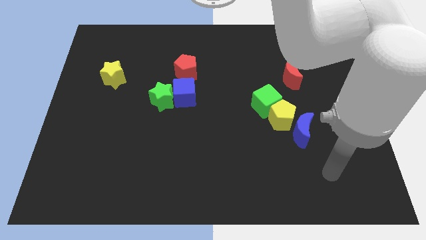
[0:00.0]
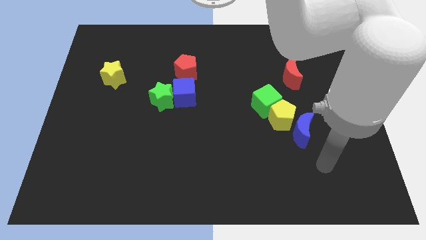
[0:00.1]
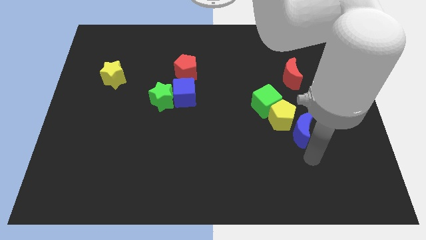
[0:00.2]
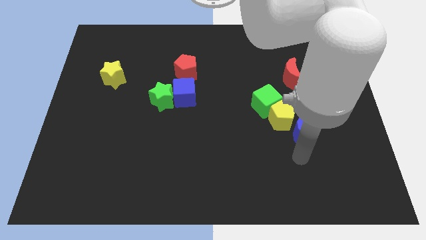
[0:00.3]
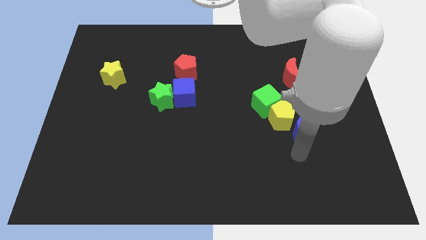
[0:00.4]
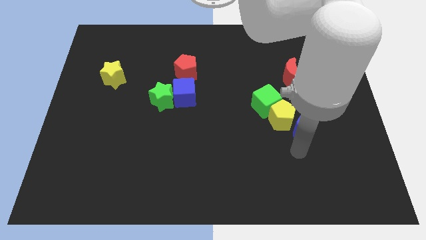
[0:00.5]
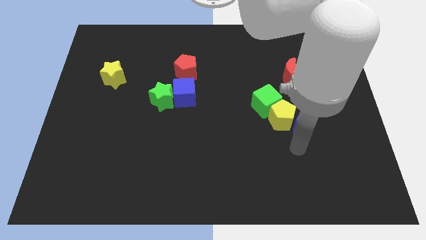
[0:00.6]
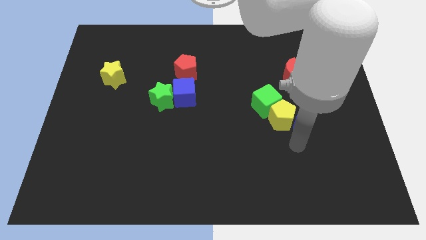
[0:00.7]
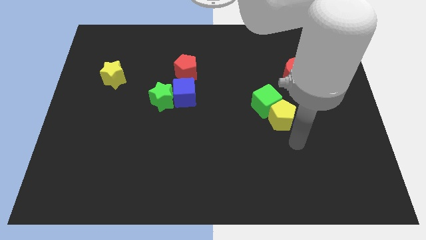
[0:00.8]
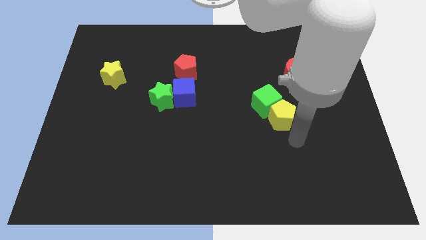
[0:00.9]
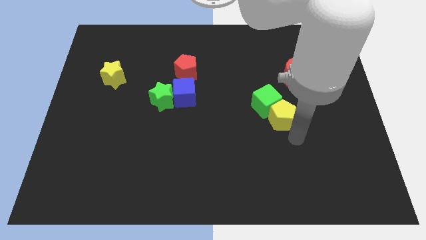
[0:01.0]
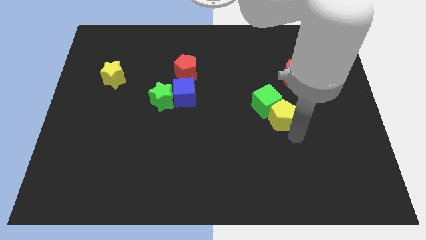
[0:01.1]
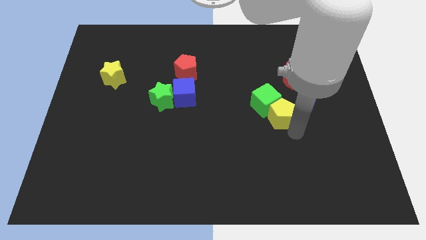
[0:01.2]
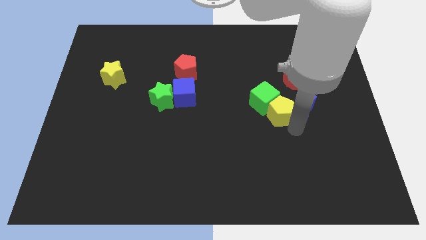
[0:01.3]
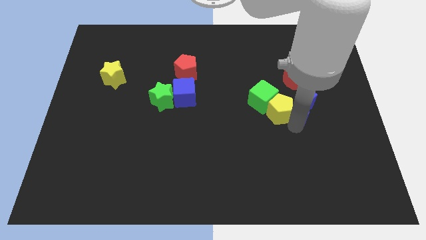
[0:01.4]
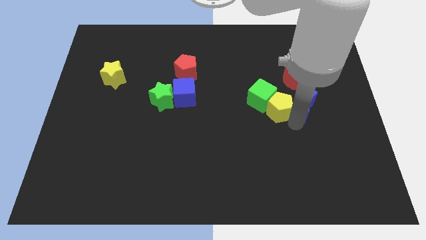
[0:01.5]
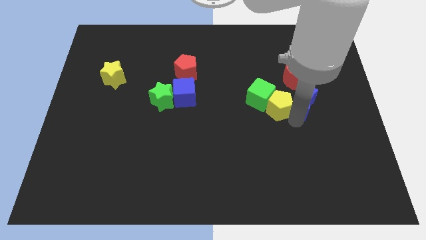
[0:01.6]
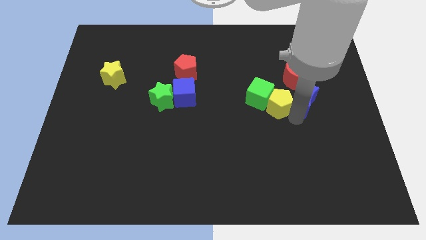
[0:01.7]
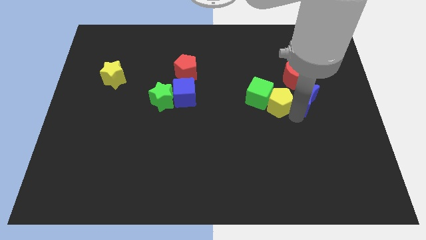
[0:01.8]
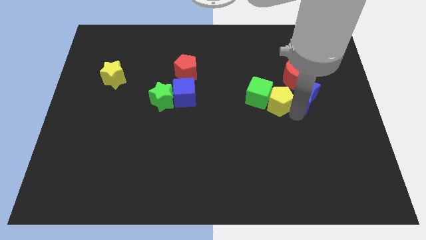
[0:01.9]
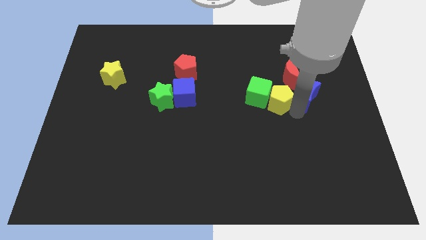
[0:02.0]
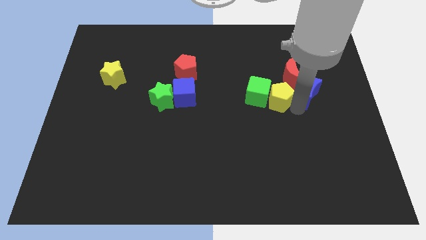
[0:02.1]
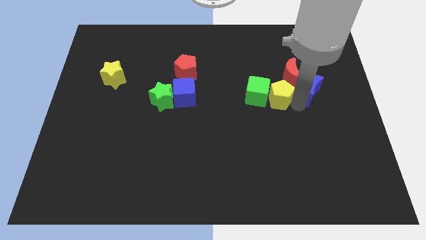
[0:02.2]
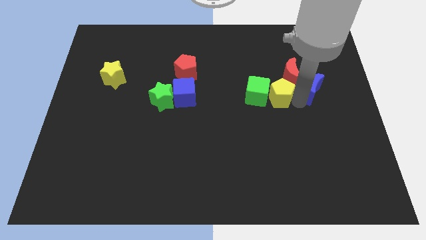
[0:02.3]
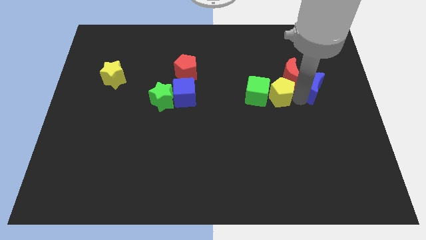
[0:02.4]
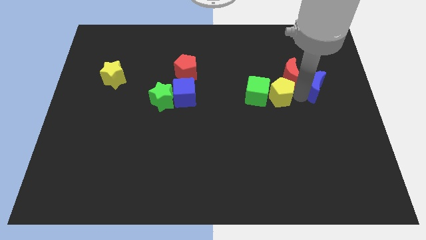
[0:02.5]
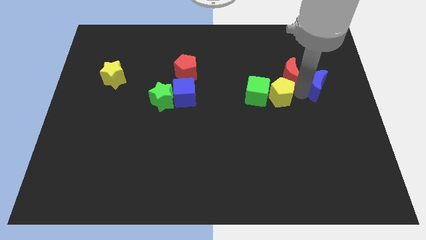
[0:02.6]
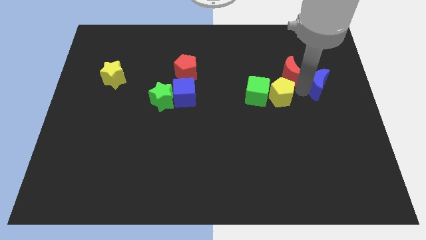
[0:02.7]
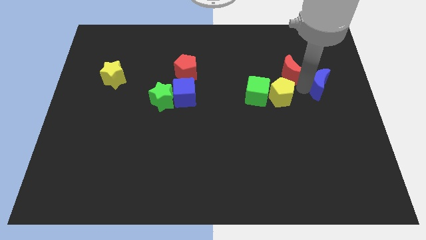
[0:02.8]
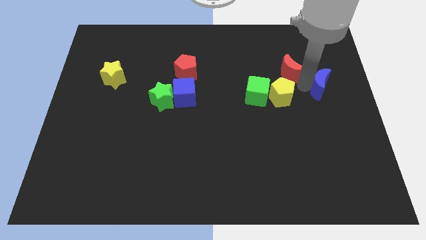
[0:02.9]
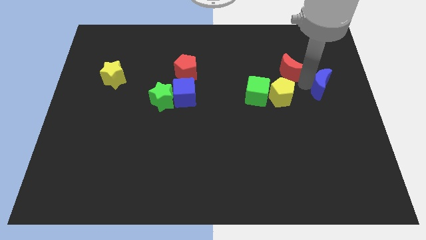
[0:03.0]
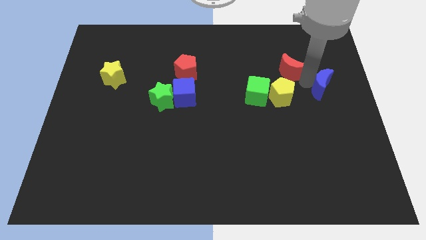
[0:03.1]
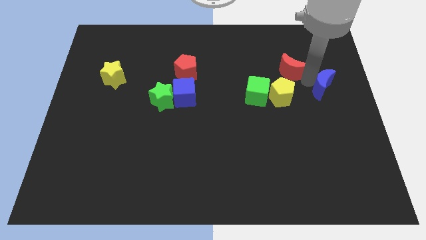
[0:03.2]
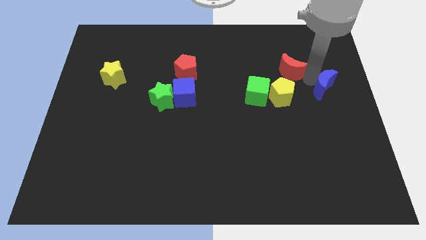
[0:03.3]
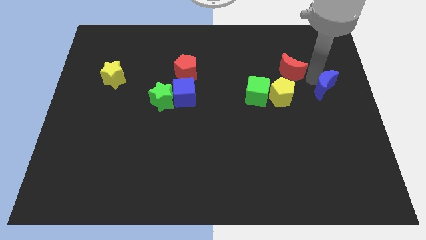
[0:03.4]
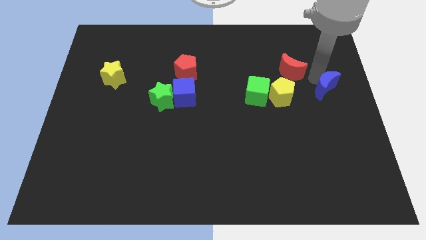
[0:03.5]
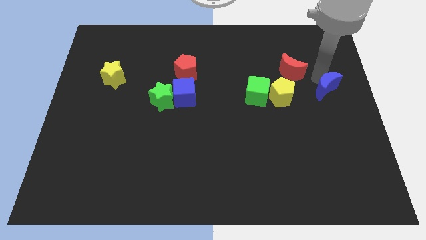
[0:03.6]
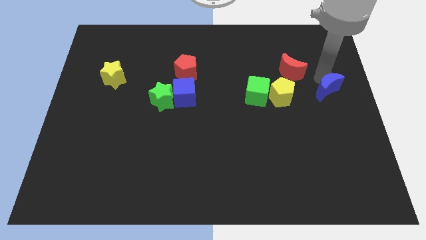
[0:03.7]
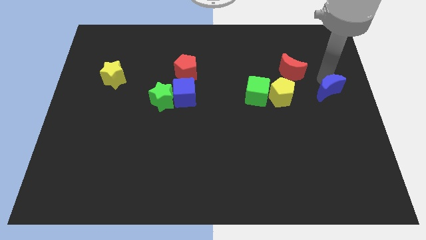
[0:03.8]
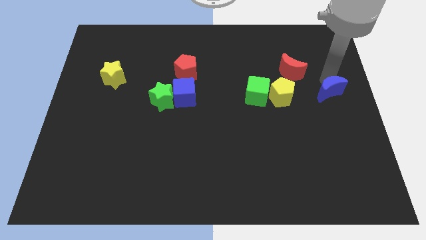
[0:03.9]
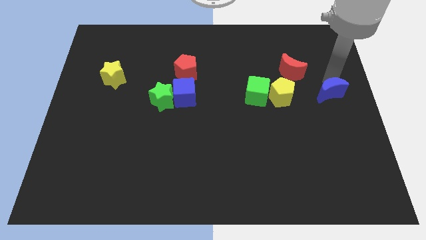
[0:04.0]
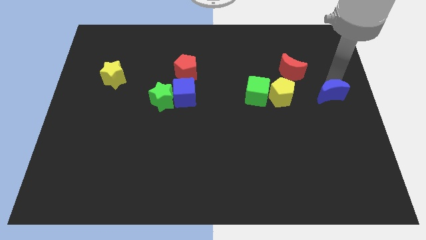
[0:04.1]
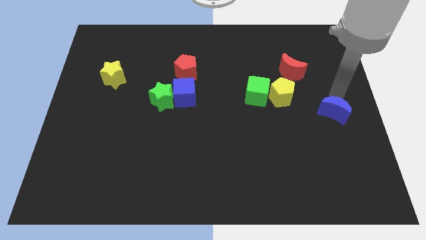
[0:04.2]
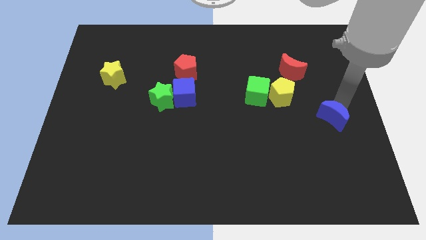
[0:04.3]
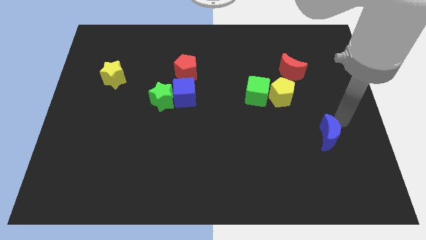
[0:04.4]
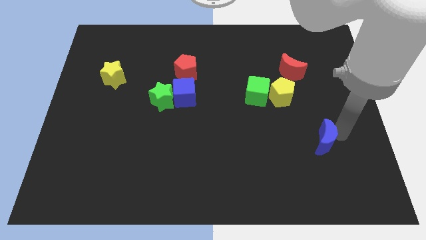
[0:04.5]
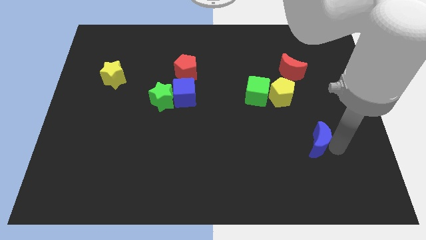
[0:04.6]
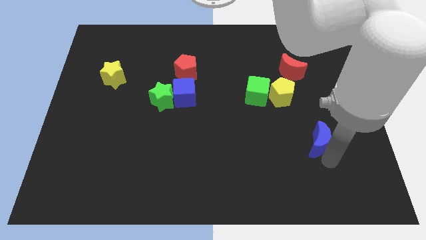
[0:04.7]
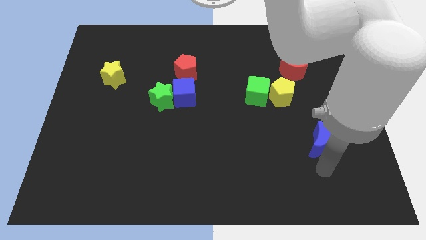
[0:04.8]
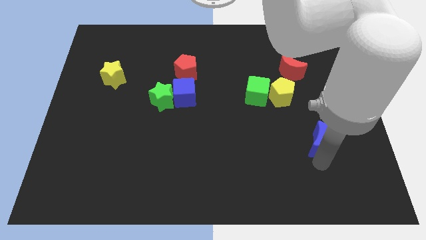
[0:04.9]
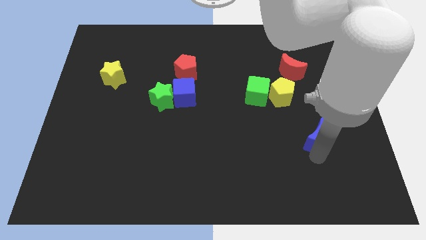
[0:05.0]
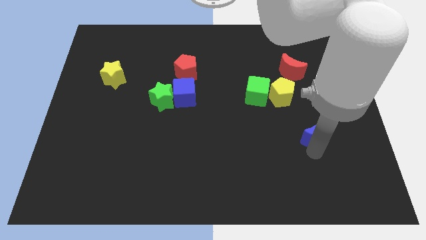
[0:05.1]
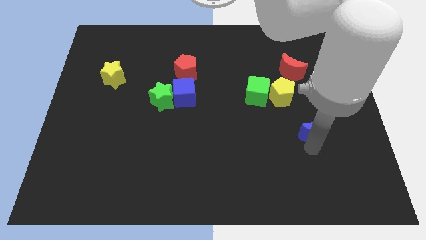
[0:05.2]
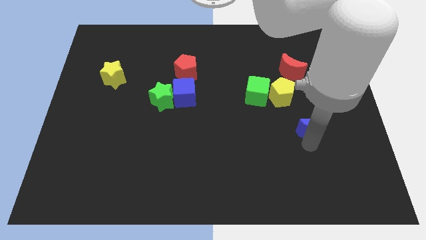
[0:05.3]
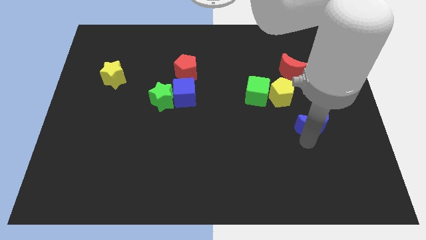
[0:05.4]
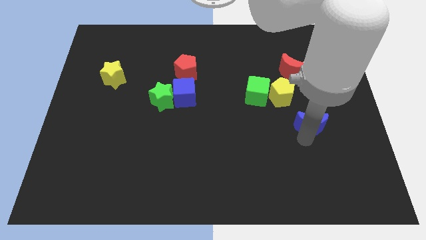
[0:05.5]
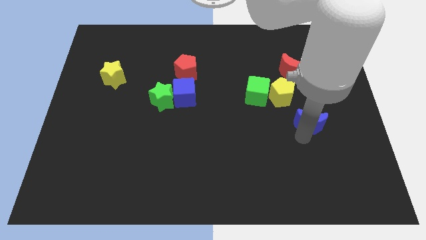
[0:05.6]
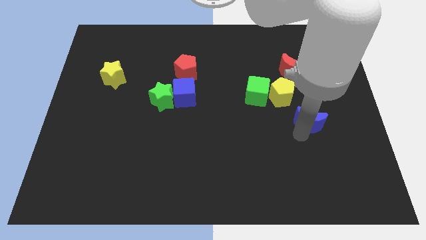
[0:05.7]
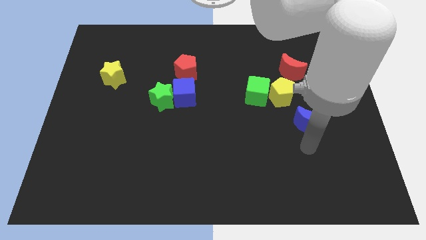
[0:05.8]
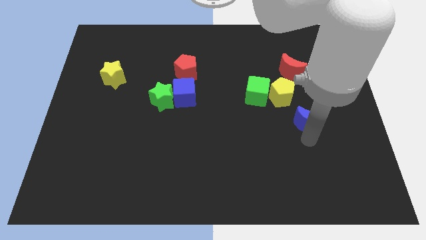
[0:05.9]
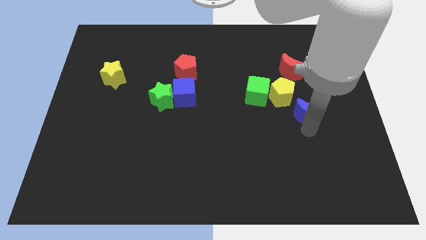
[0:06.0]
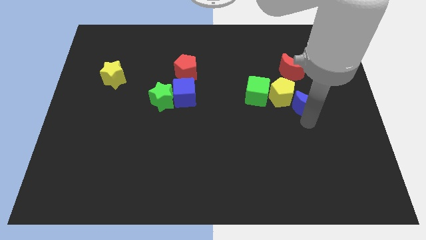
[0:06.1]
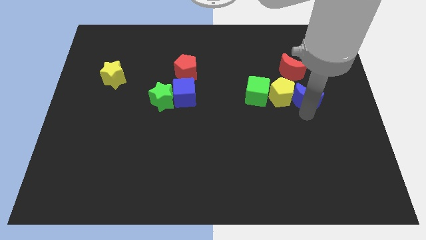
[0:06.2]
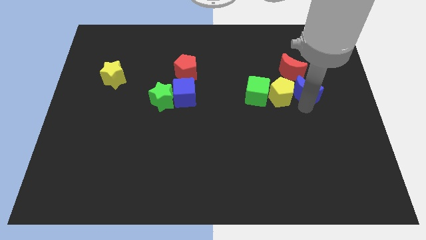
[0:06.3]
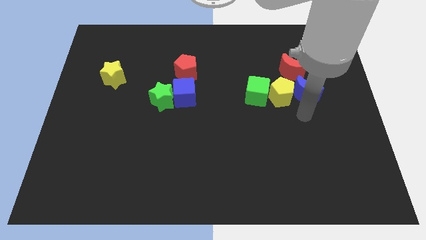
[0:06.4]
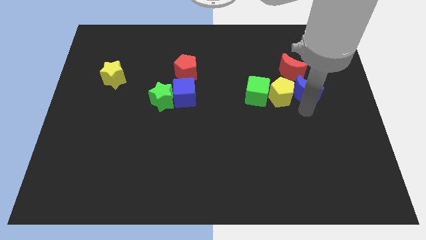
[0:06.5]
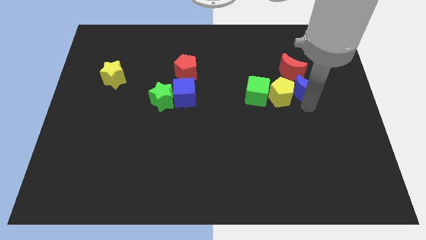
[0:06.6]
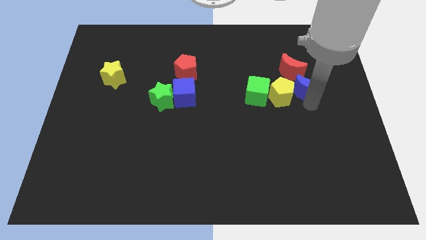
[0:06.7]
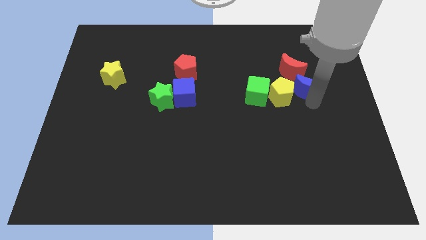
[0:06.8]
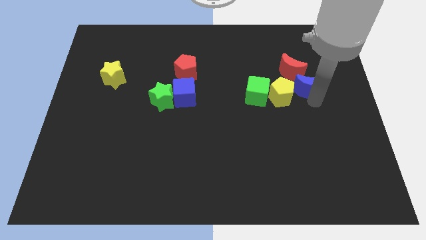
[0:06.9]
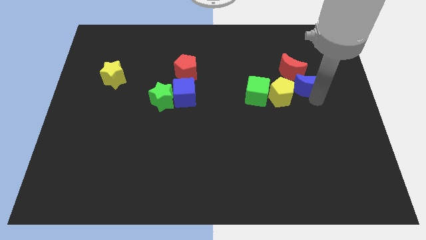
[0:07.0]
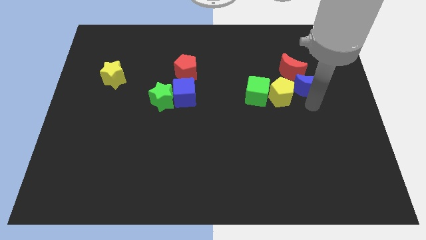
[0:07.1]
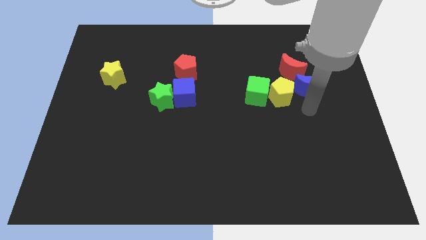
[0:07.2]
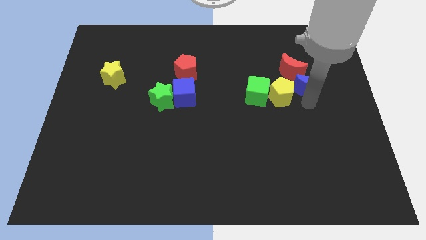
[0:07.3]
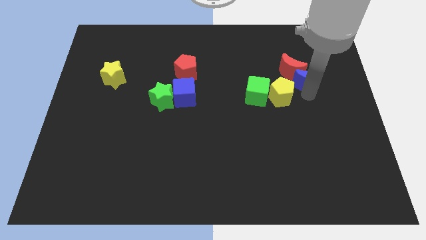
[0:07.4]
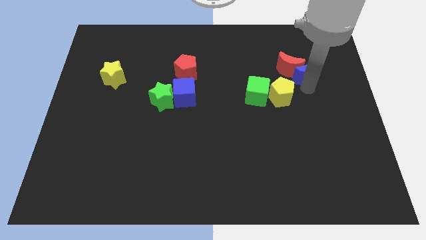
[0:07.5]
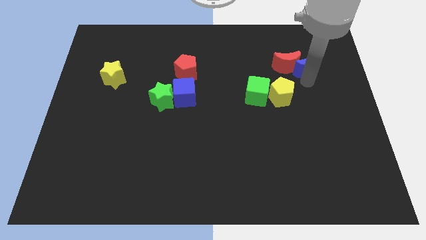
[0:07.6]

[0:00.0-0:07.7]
push the blue moon diagonally up and to the right of the red moon
